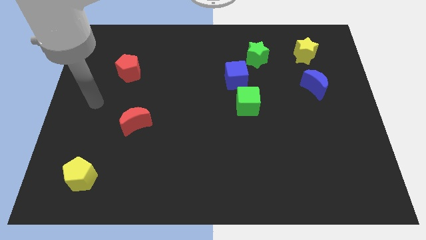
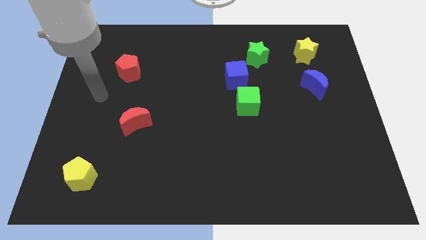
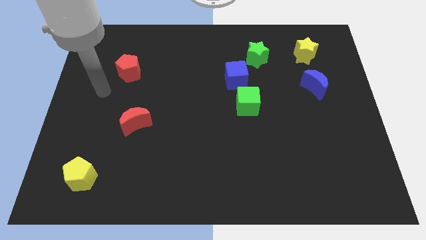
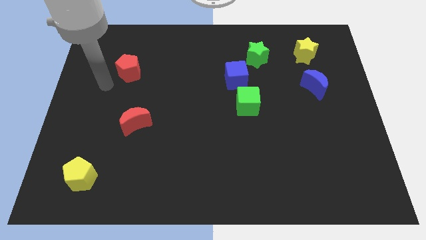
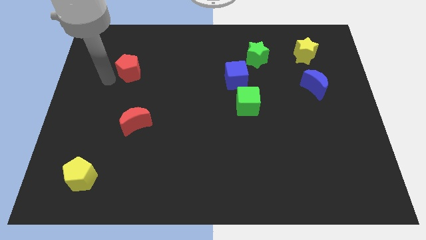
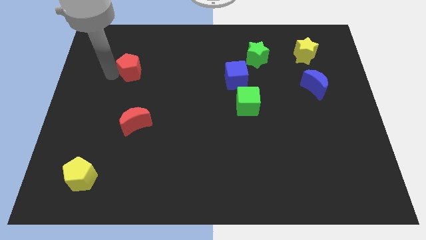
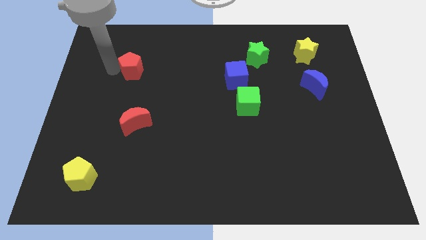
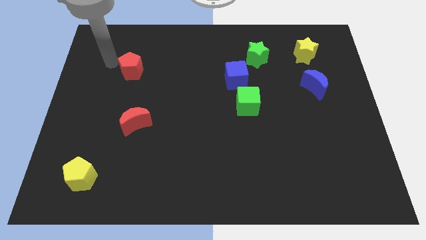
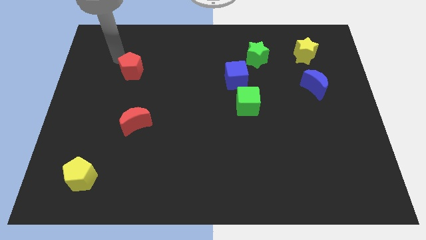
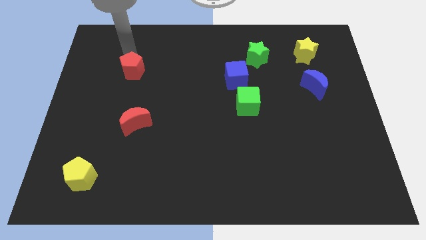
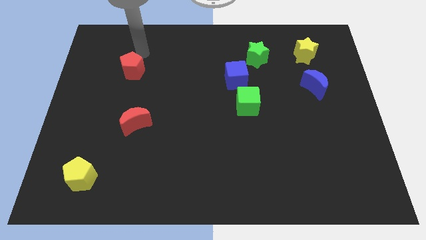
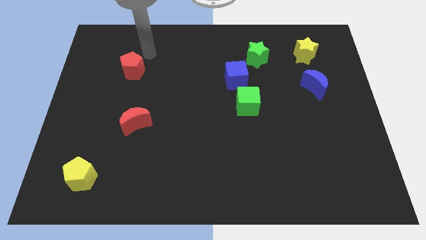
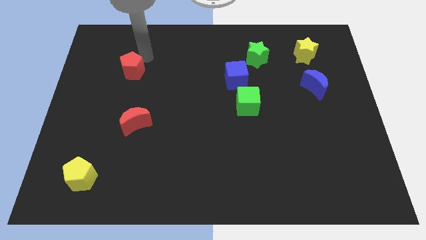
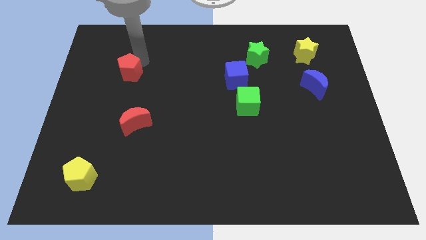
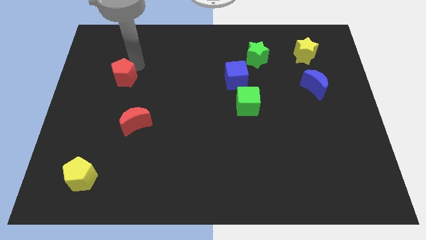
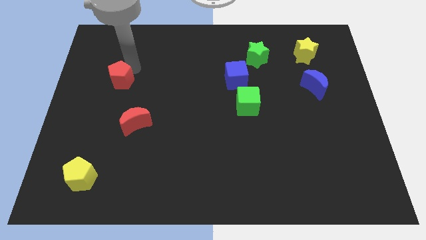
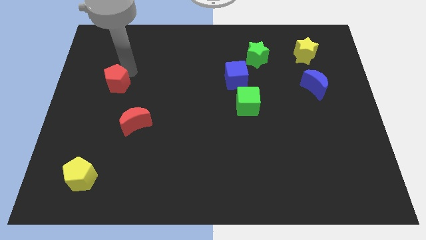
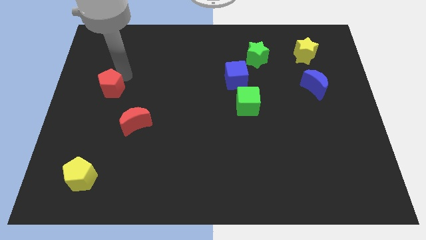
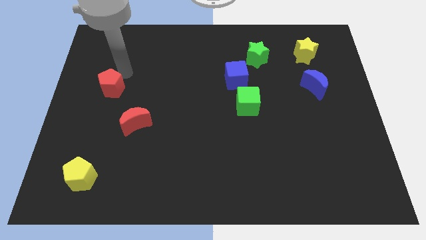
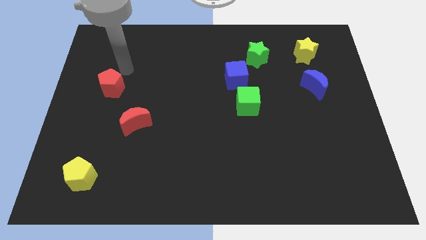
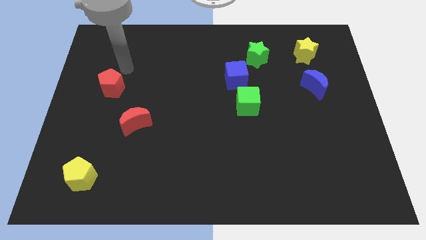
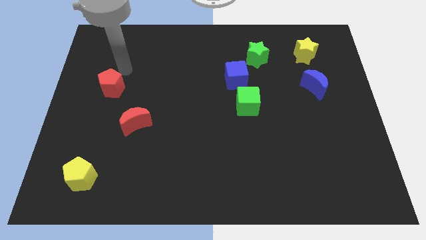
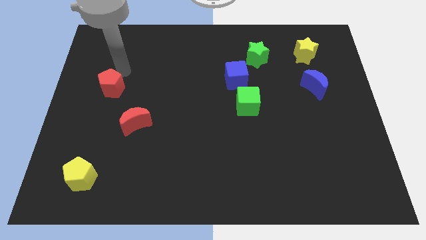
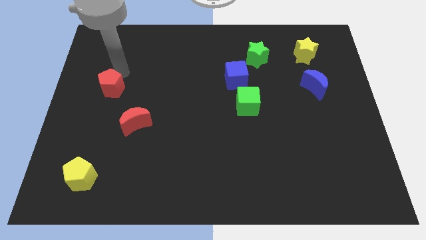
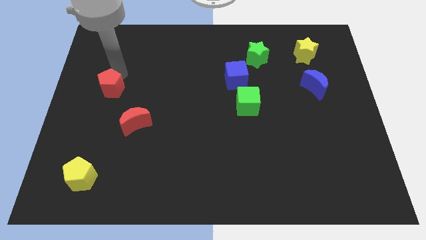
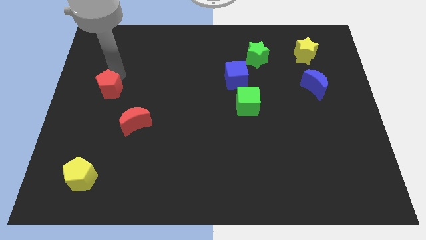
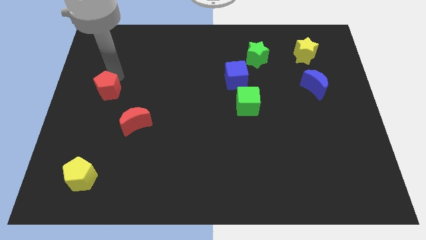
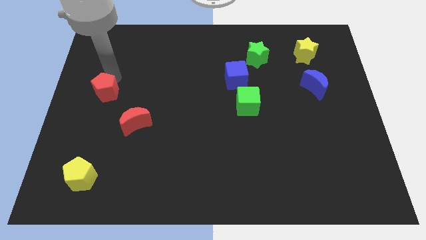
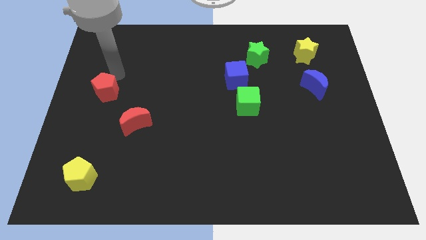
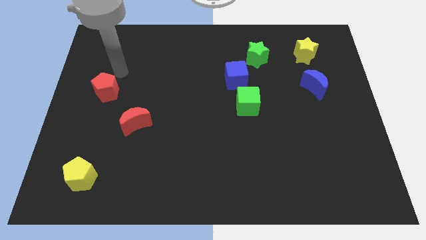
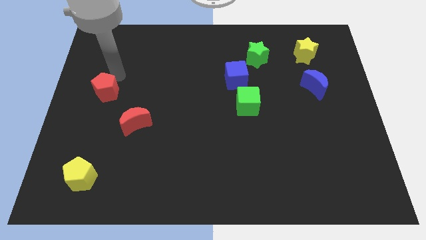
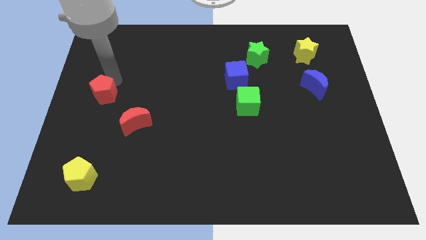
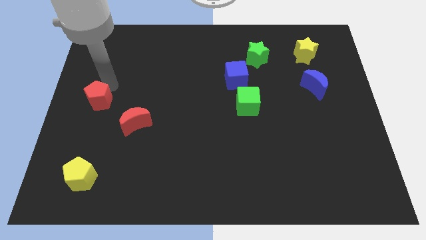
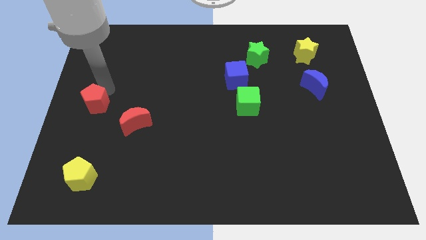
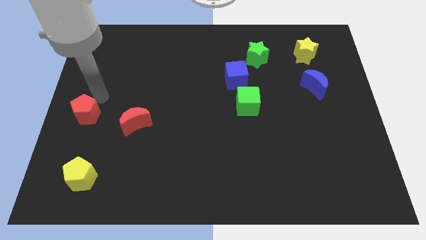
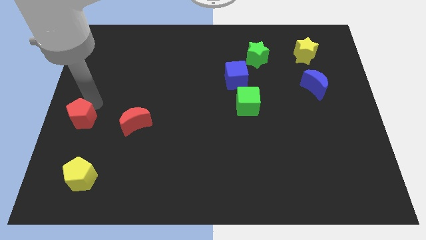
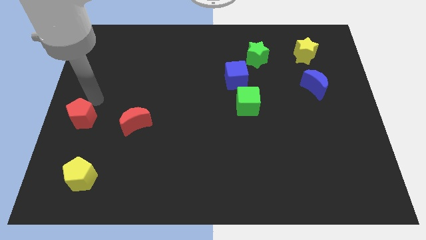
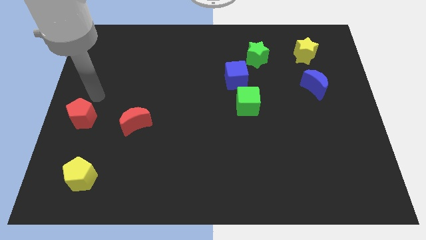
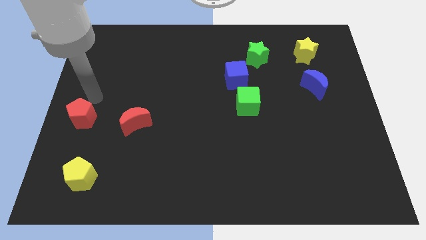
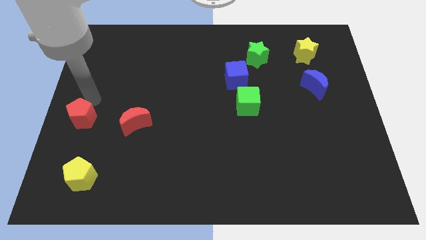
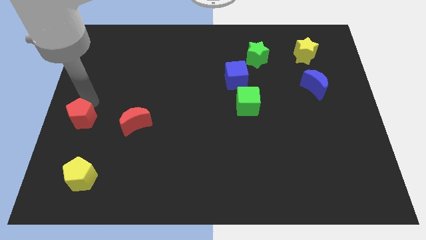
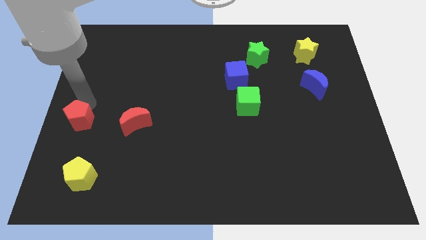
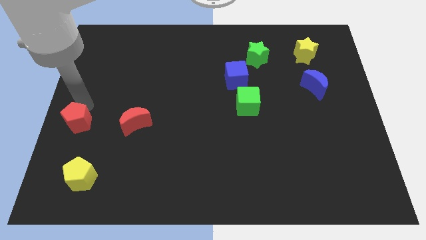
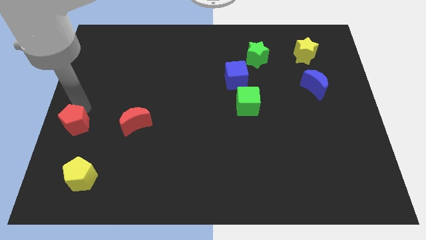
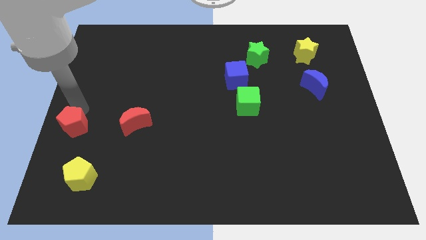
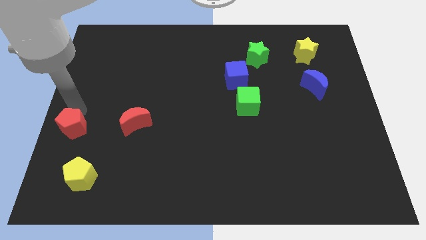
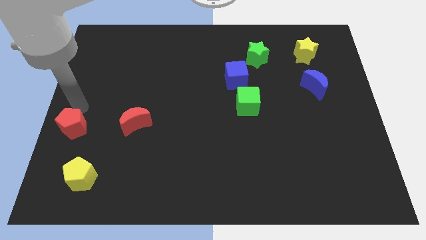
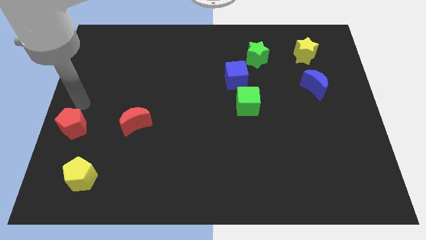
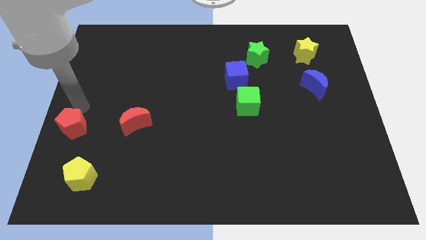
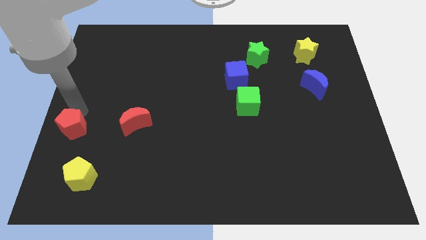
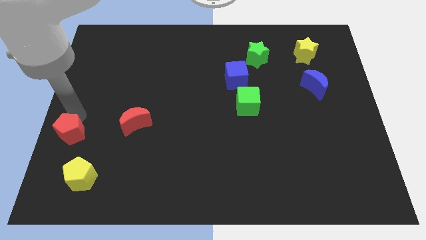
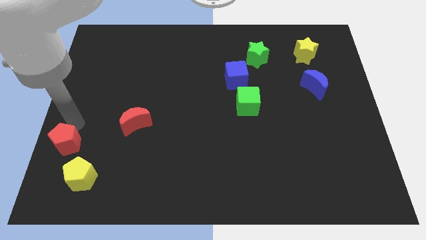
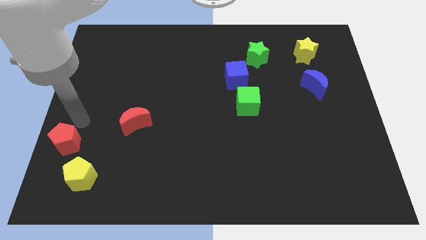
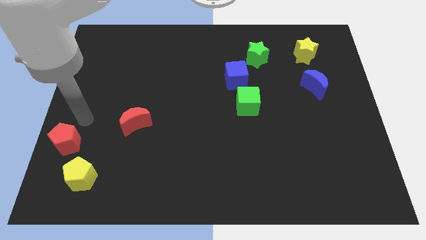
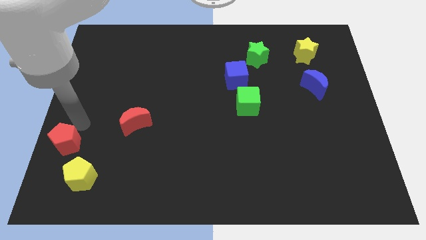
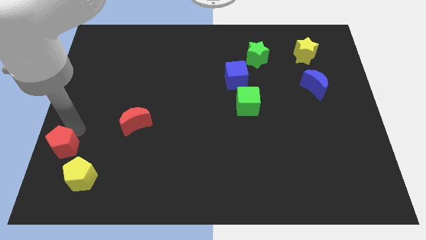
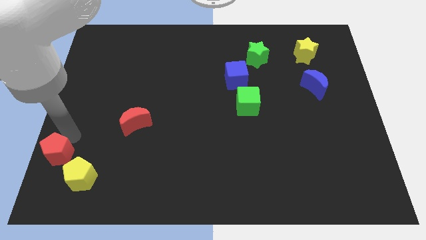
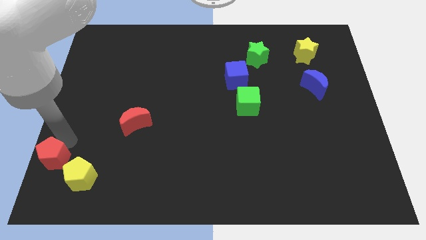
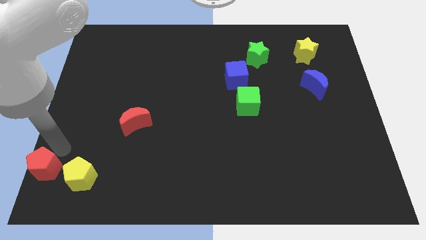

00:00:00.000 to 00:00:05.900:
slide the red pentagon to the bottom left of the board

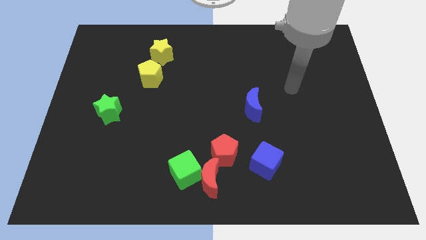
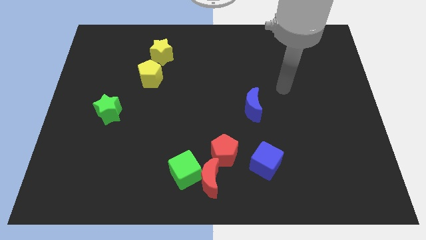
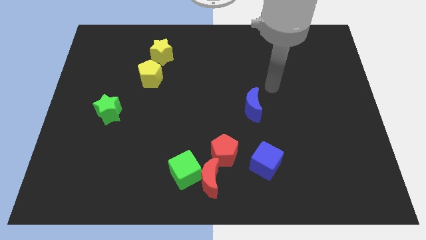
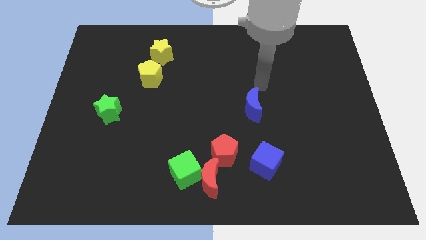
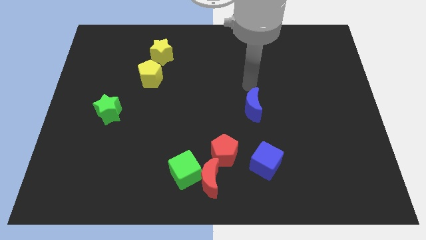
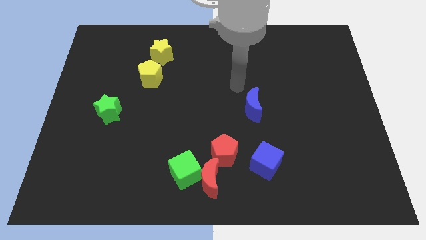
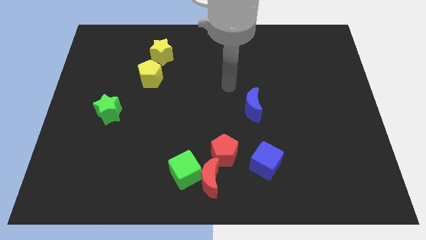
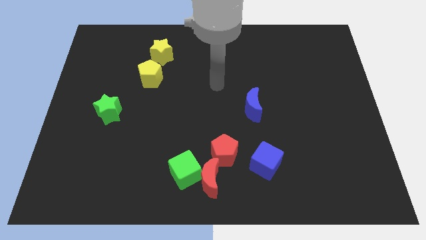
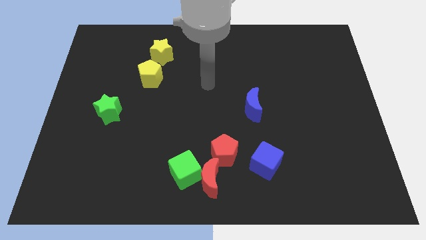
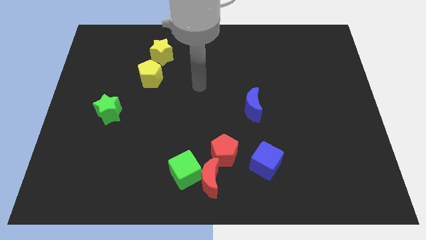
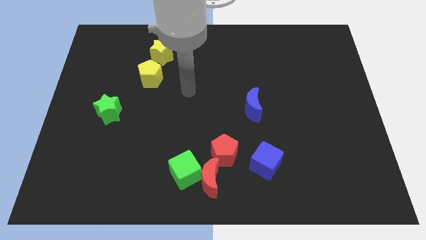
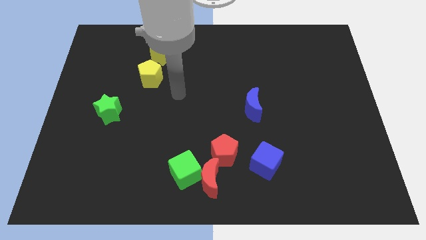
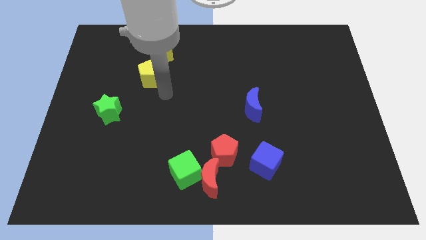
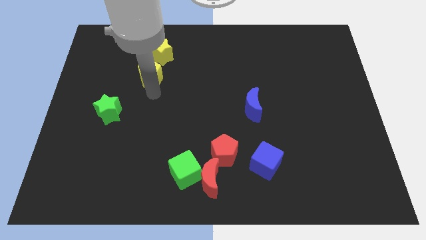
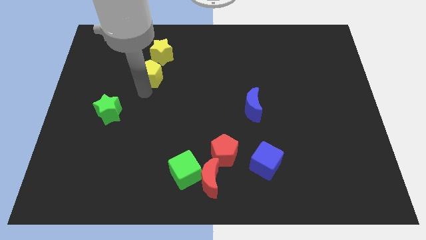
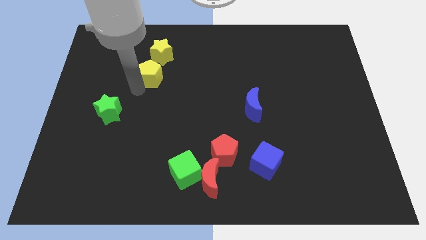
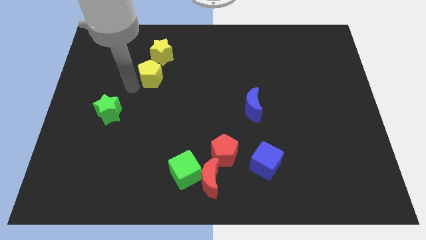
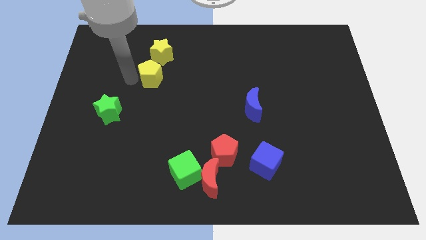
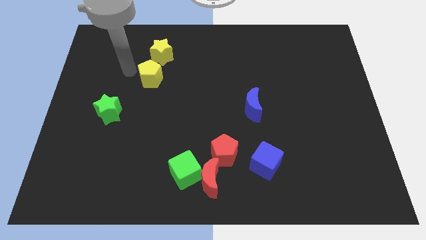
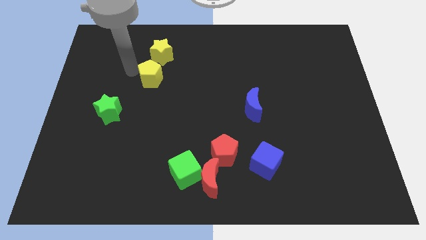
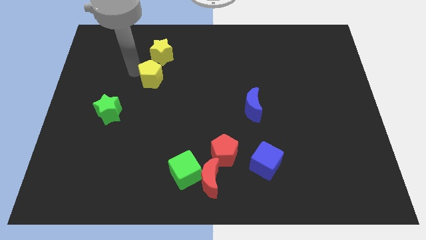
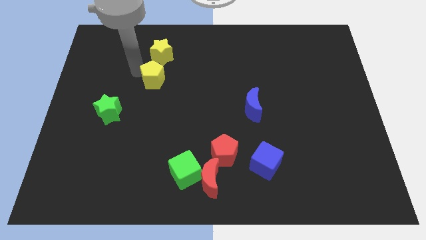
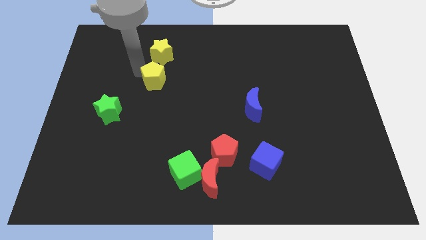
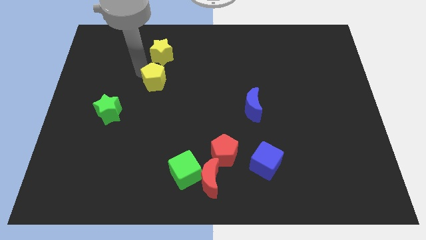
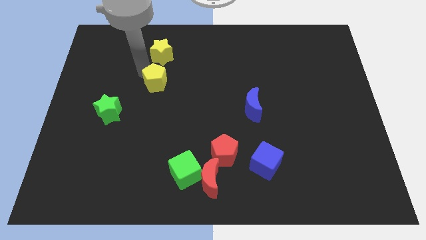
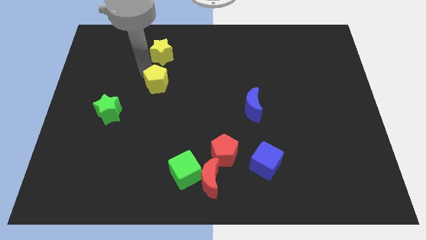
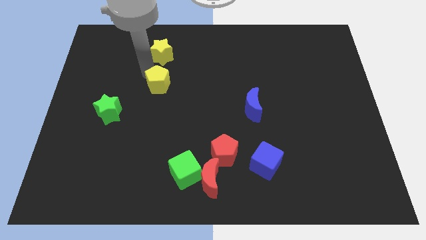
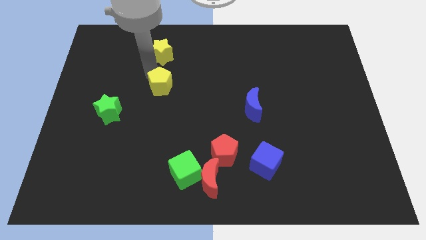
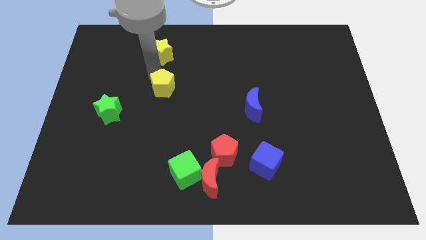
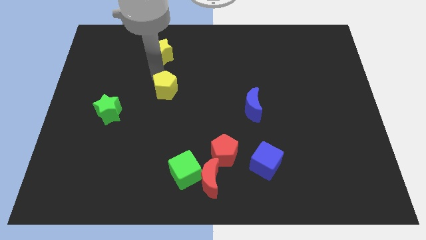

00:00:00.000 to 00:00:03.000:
move the yellow pentagon to the middle of the board
